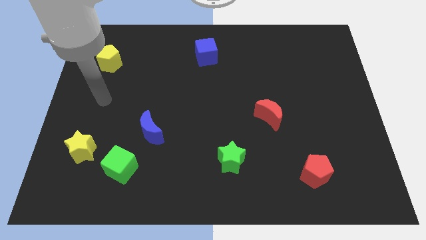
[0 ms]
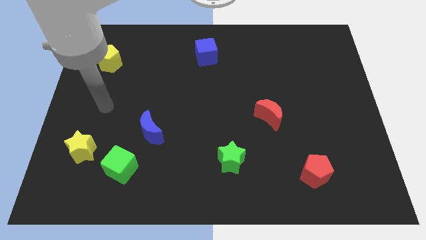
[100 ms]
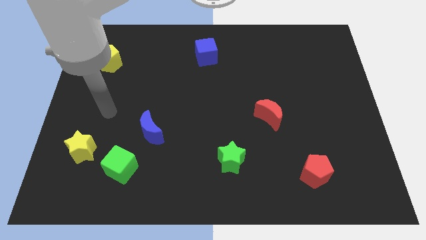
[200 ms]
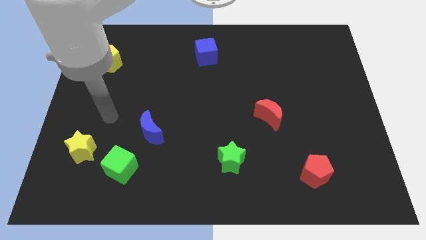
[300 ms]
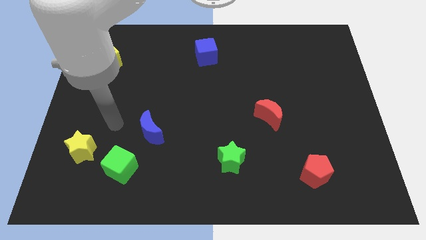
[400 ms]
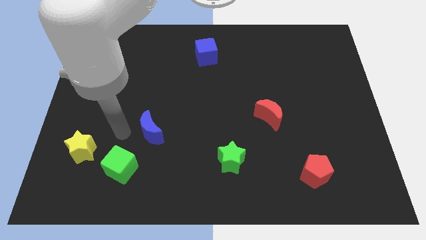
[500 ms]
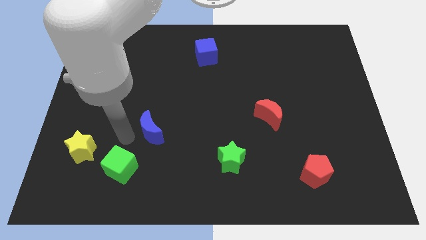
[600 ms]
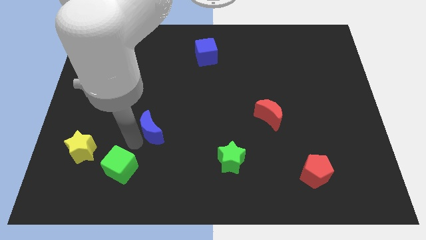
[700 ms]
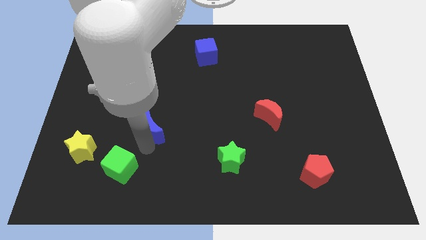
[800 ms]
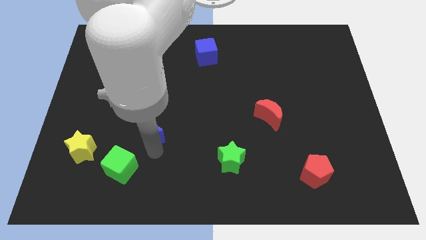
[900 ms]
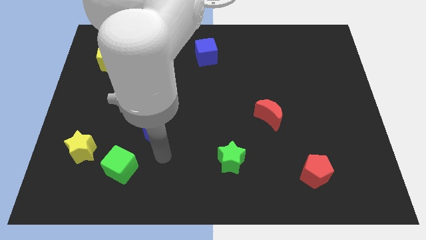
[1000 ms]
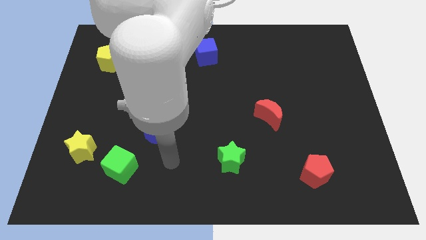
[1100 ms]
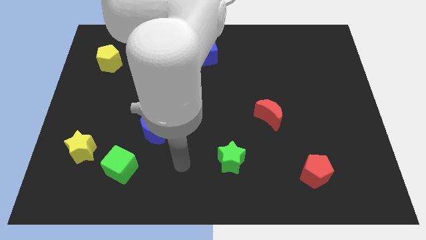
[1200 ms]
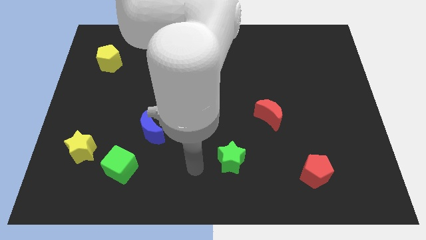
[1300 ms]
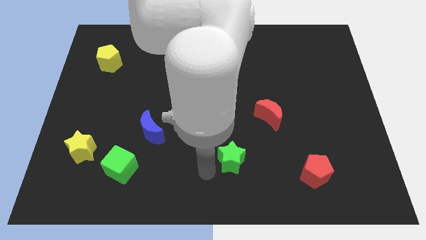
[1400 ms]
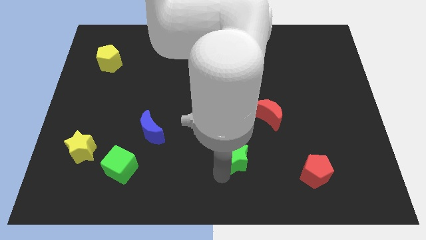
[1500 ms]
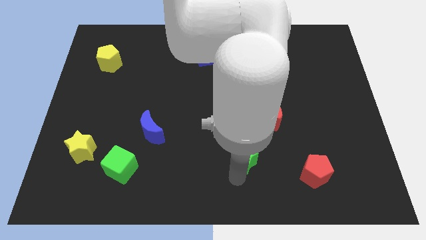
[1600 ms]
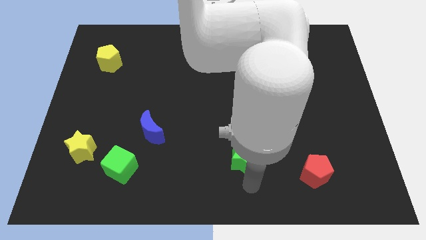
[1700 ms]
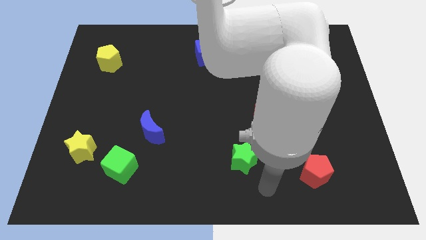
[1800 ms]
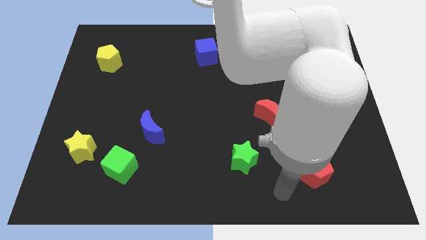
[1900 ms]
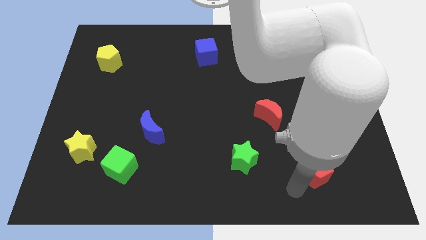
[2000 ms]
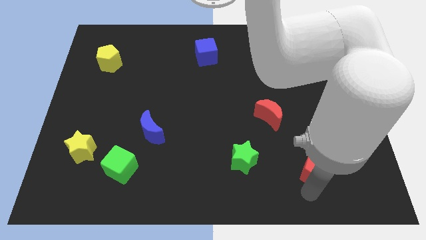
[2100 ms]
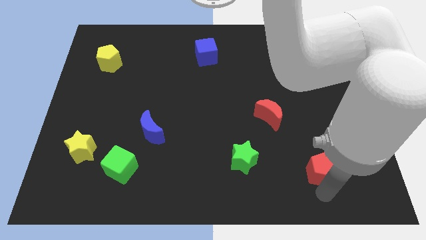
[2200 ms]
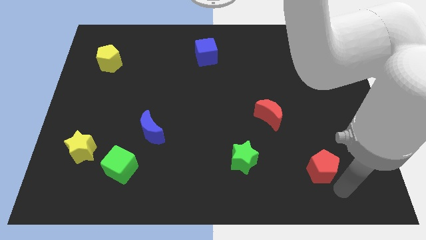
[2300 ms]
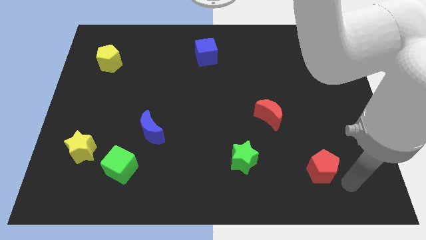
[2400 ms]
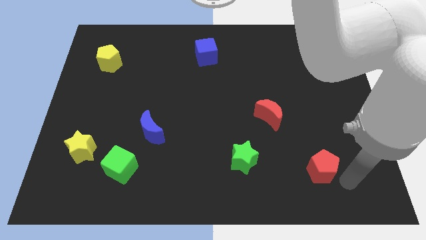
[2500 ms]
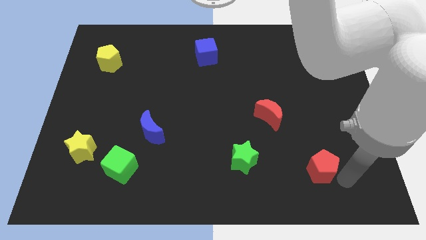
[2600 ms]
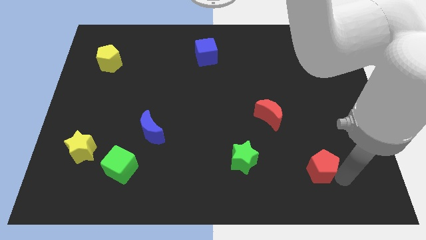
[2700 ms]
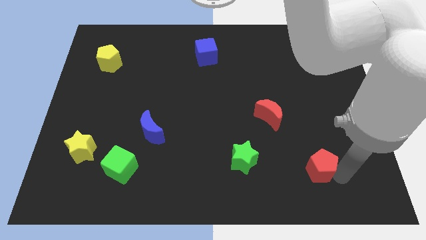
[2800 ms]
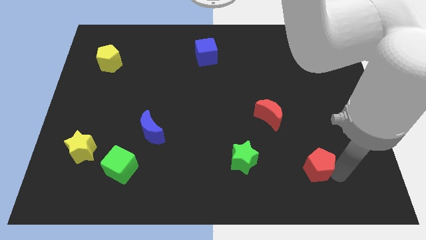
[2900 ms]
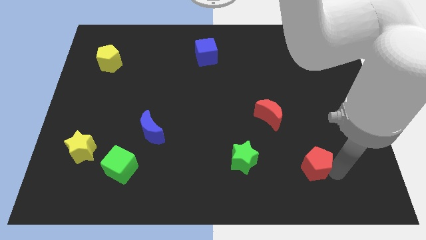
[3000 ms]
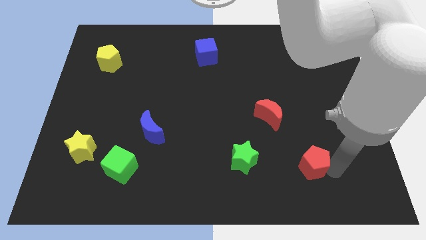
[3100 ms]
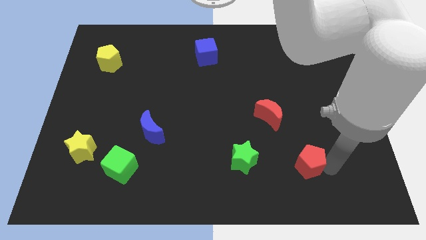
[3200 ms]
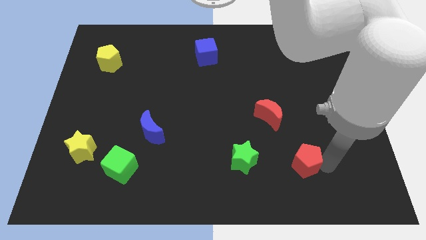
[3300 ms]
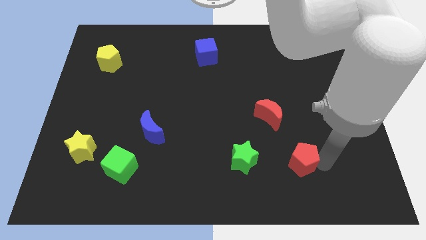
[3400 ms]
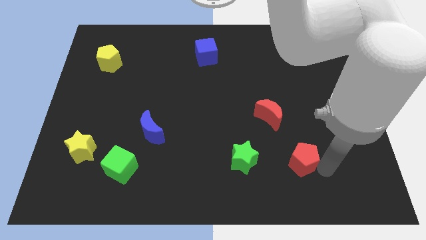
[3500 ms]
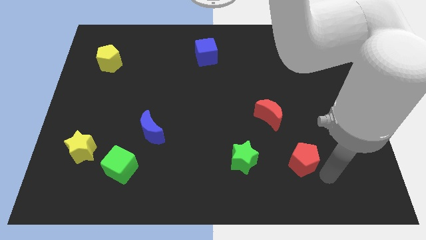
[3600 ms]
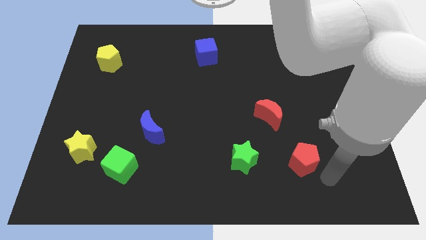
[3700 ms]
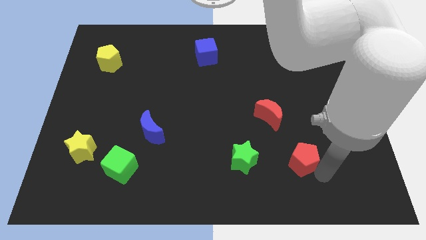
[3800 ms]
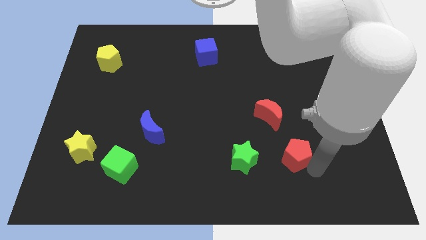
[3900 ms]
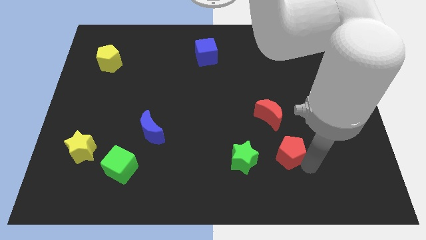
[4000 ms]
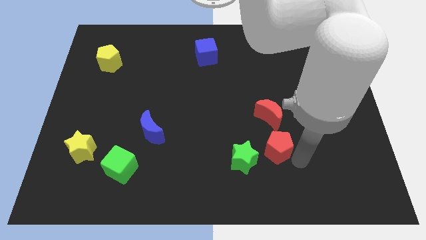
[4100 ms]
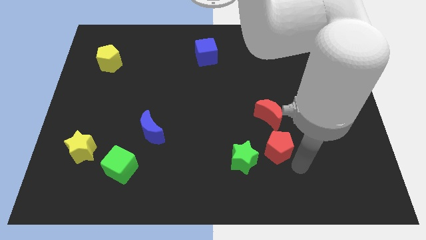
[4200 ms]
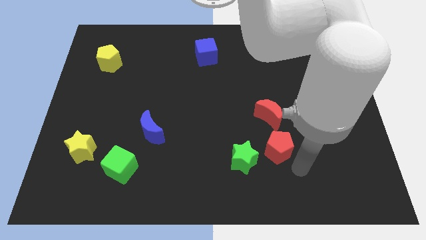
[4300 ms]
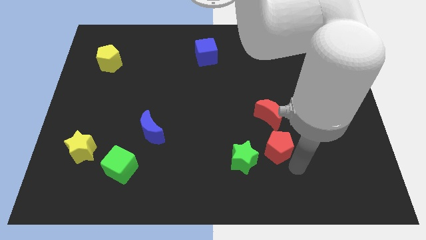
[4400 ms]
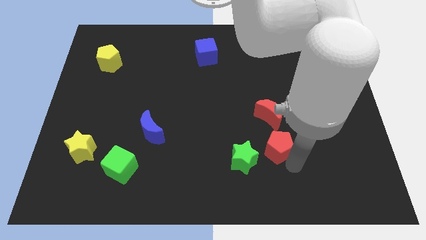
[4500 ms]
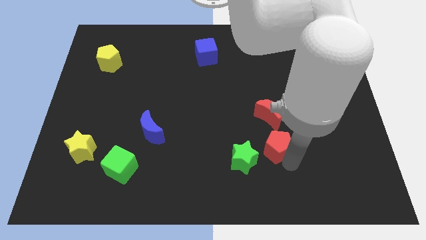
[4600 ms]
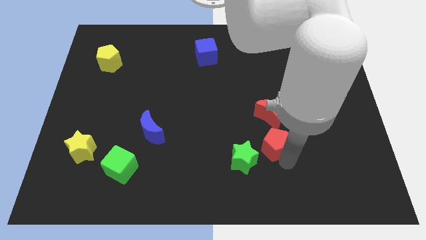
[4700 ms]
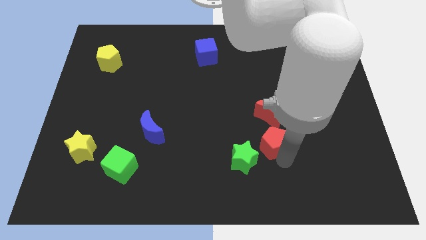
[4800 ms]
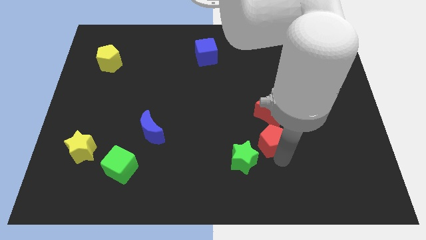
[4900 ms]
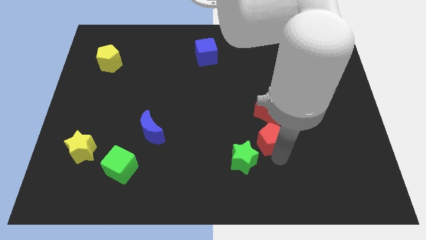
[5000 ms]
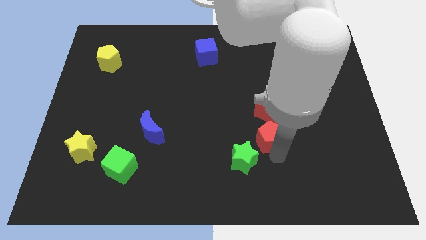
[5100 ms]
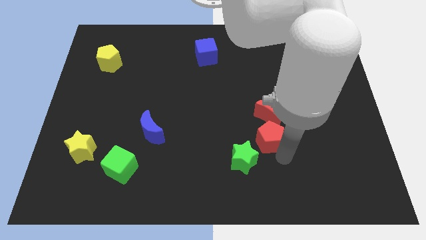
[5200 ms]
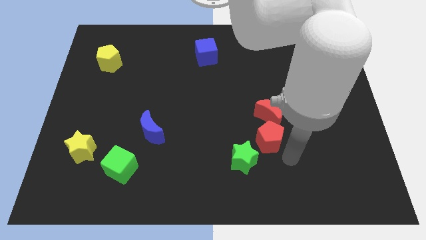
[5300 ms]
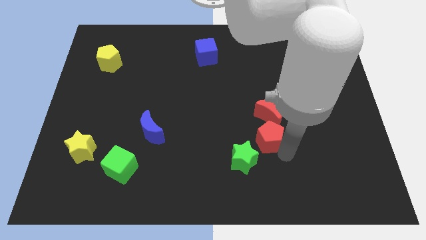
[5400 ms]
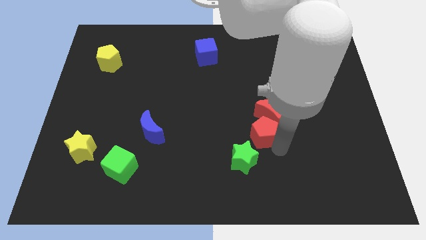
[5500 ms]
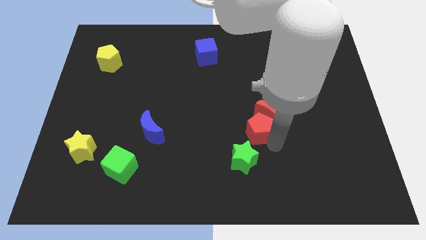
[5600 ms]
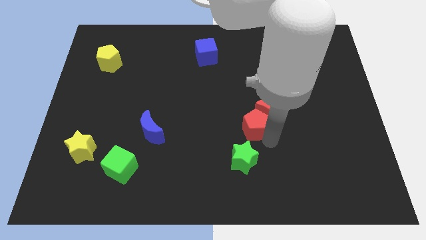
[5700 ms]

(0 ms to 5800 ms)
put the red pentagon to the center of the board

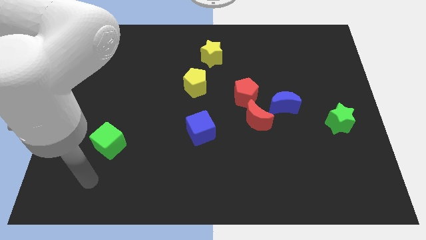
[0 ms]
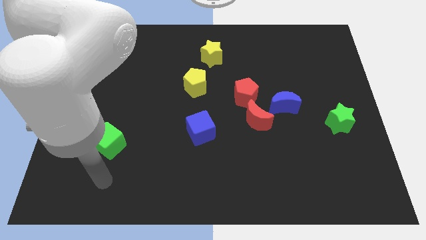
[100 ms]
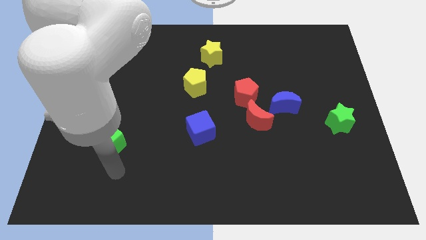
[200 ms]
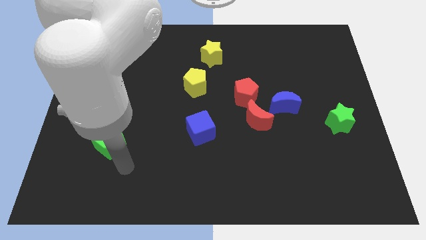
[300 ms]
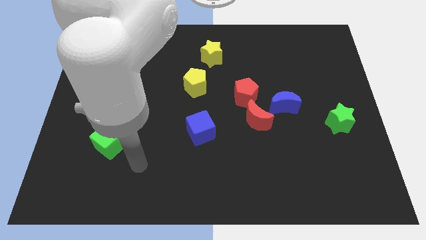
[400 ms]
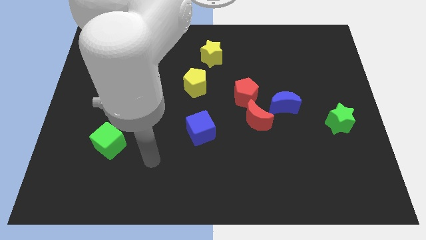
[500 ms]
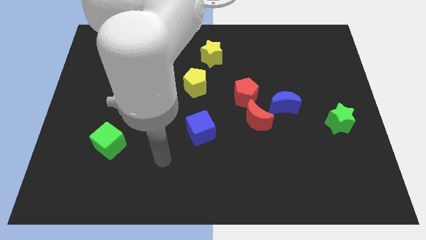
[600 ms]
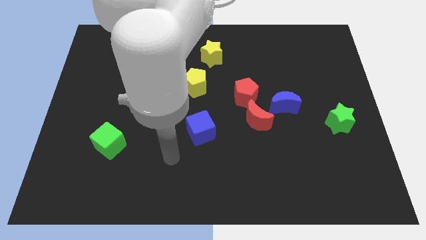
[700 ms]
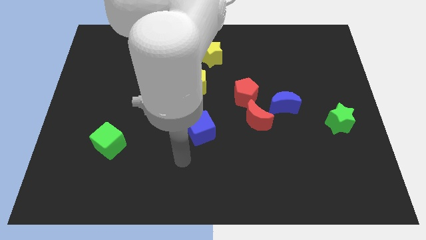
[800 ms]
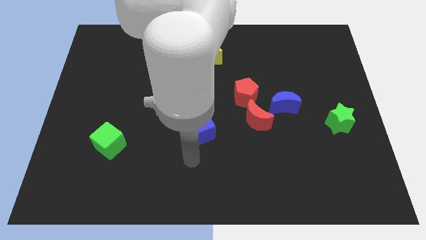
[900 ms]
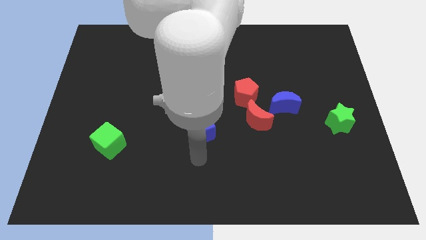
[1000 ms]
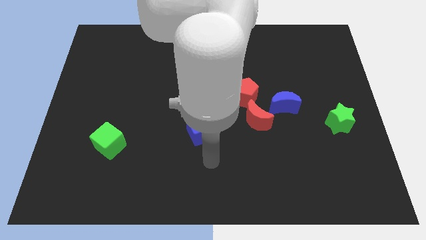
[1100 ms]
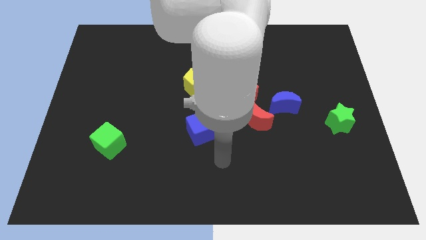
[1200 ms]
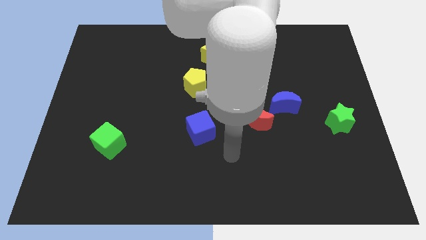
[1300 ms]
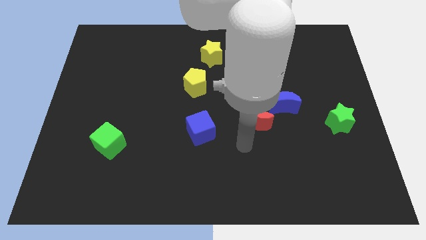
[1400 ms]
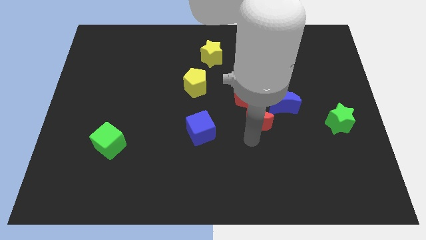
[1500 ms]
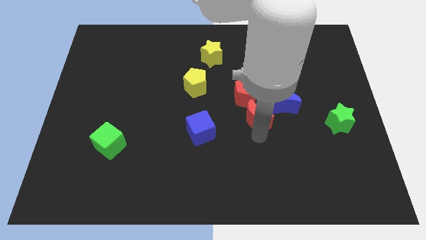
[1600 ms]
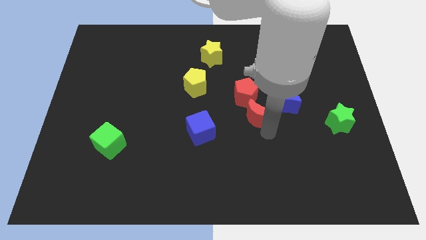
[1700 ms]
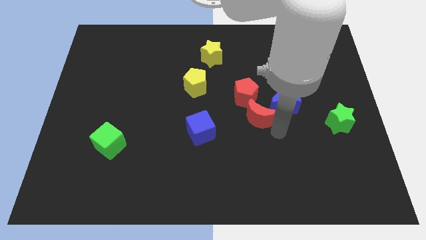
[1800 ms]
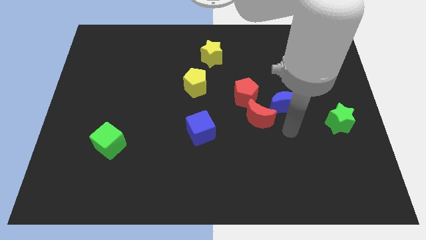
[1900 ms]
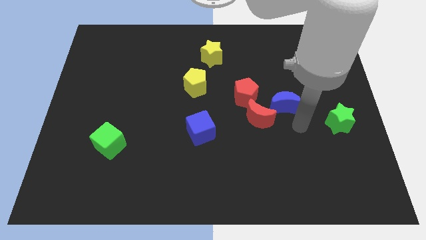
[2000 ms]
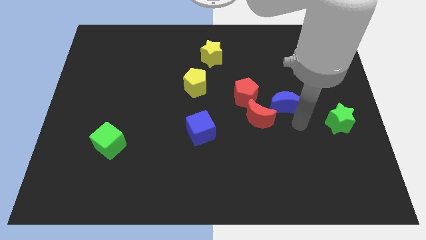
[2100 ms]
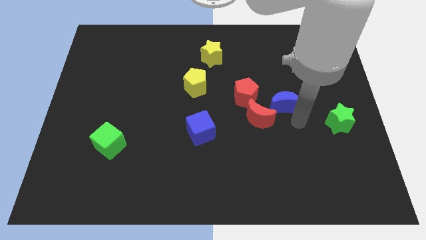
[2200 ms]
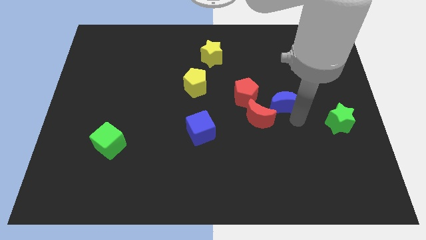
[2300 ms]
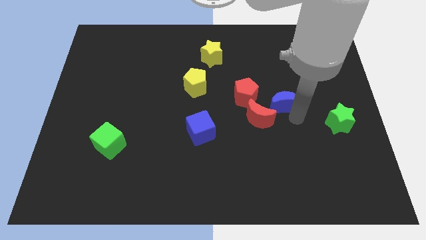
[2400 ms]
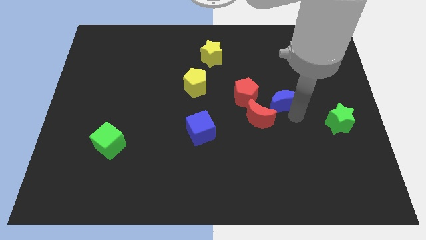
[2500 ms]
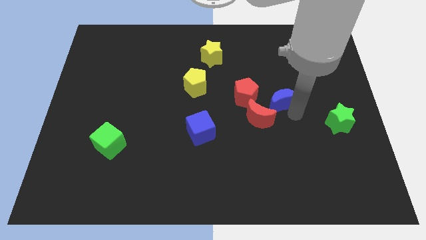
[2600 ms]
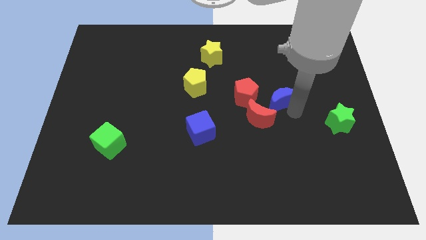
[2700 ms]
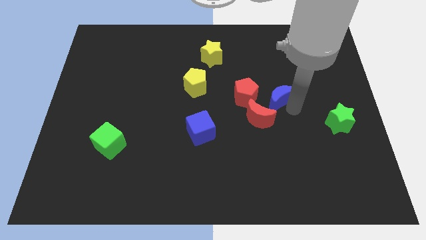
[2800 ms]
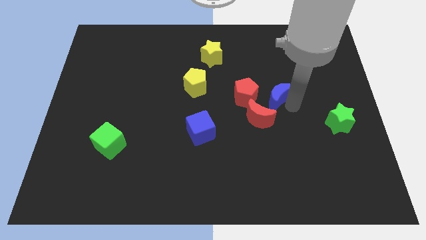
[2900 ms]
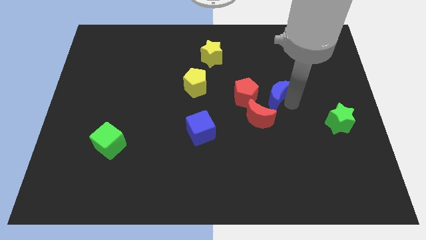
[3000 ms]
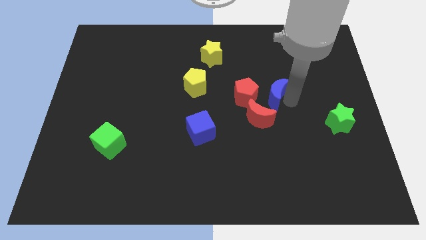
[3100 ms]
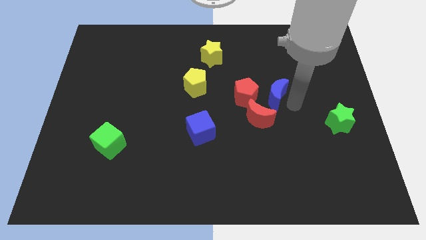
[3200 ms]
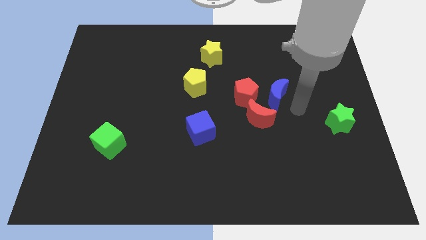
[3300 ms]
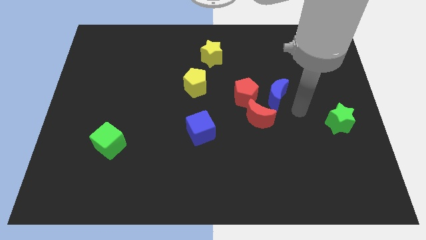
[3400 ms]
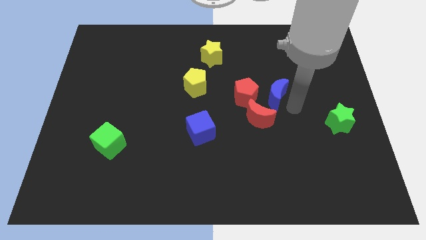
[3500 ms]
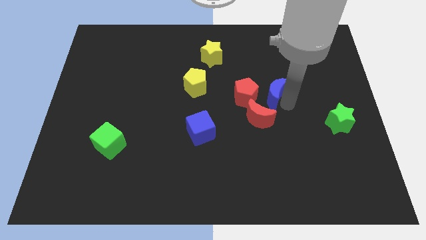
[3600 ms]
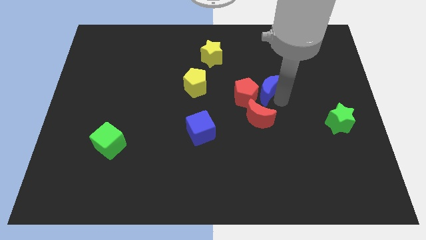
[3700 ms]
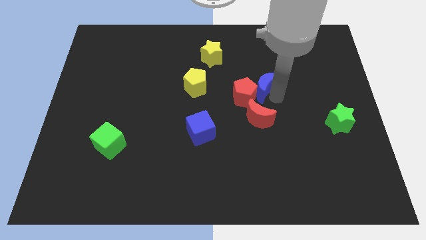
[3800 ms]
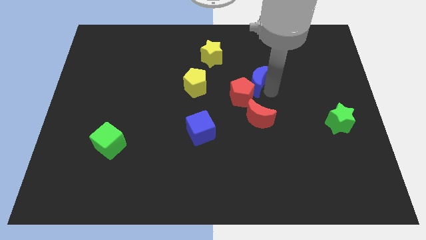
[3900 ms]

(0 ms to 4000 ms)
slide the blue moon to the middle
